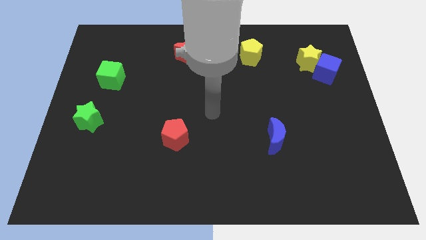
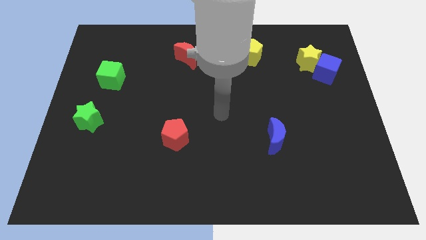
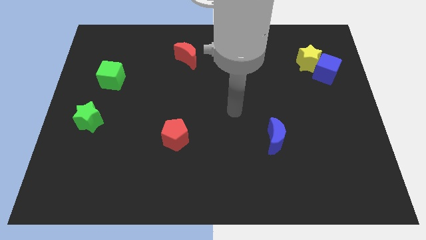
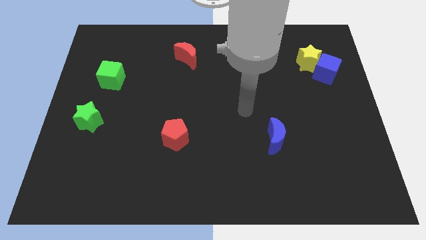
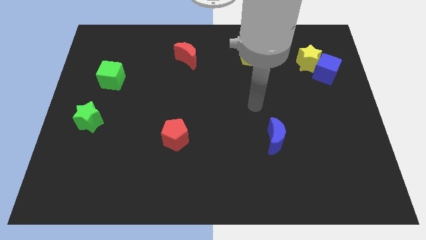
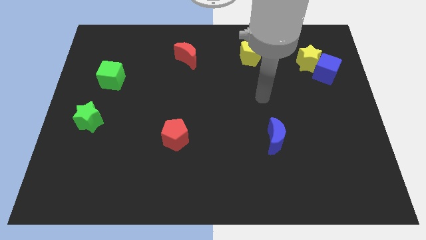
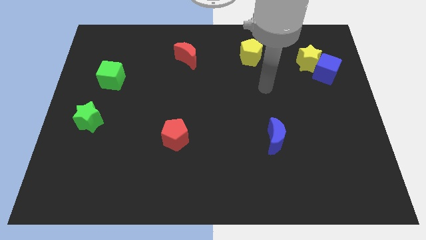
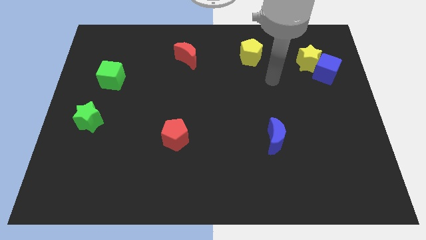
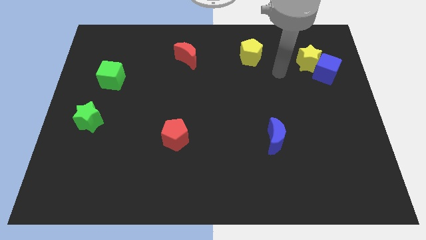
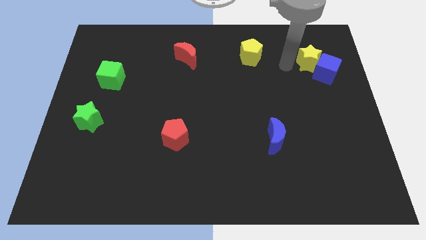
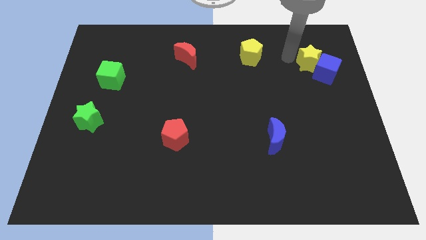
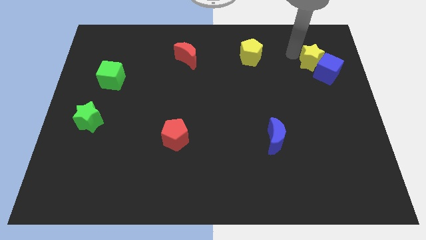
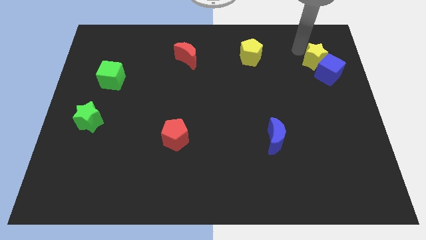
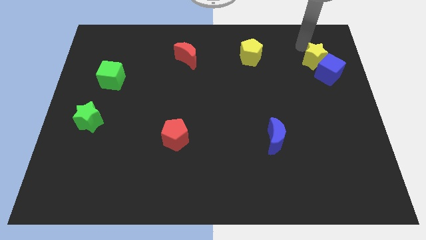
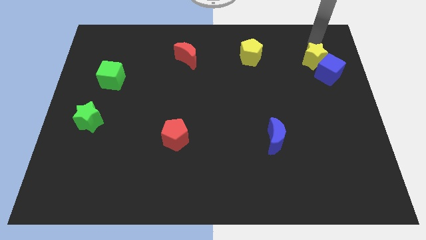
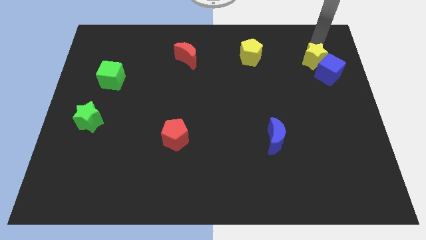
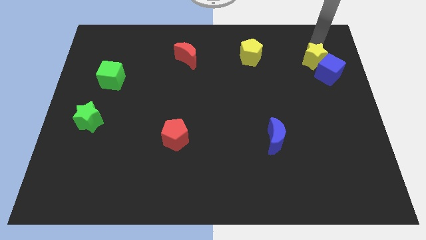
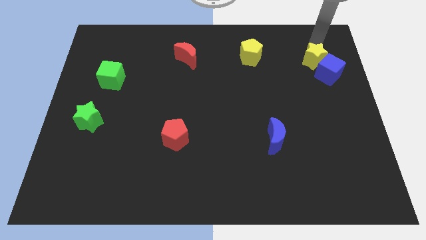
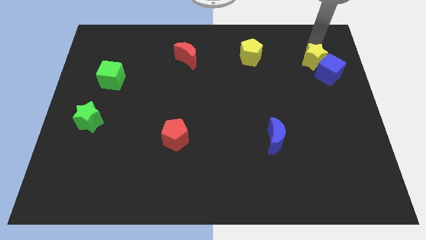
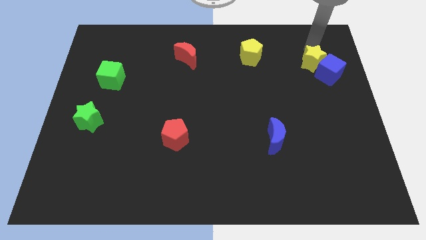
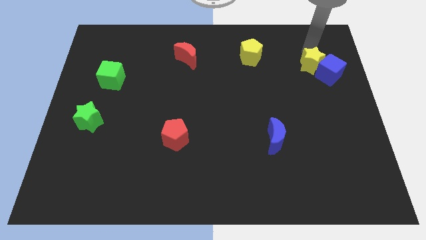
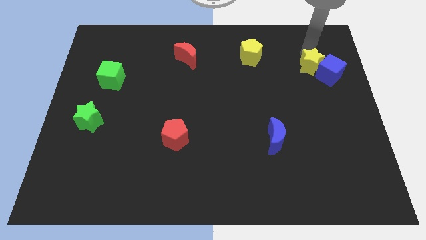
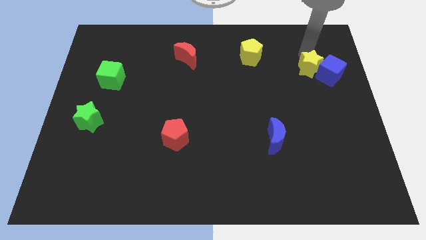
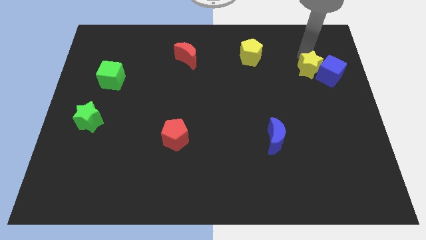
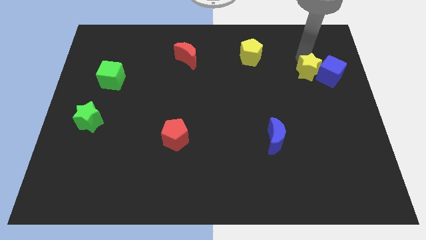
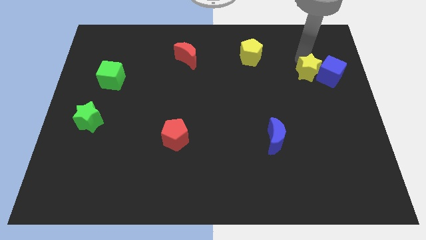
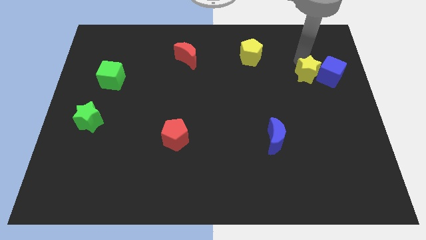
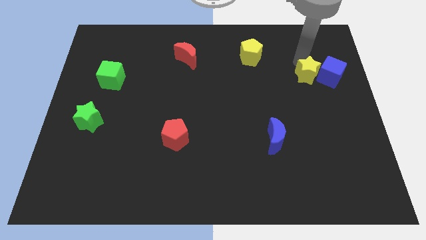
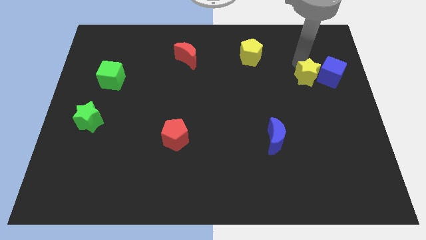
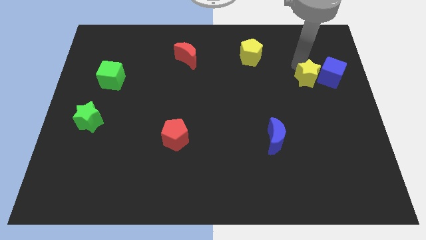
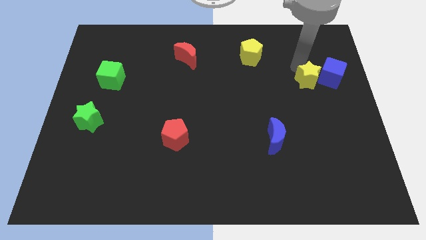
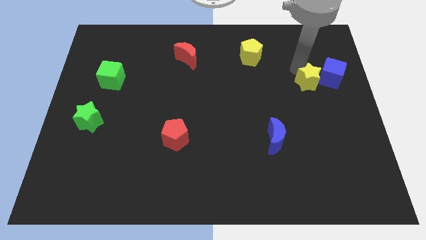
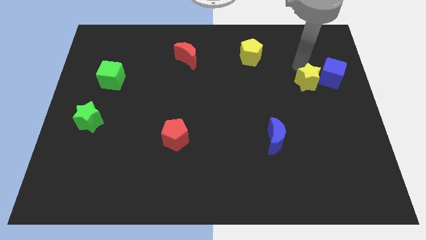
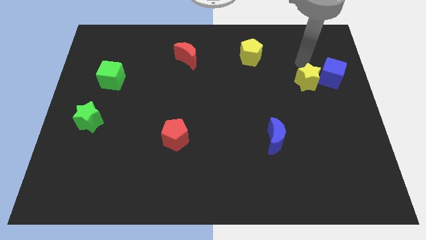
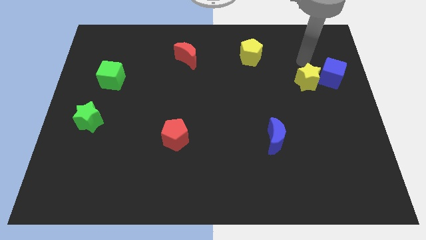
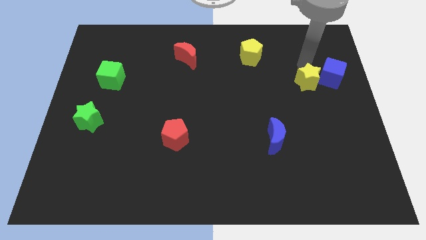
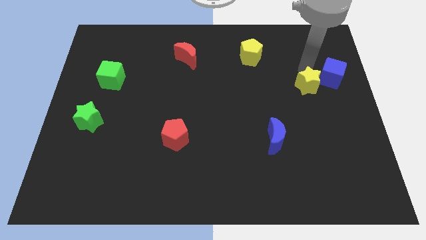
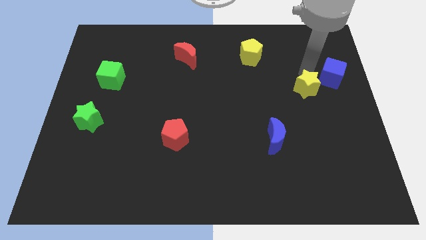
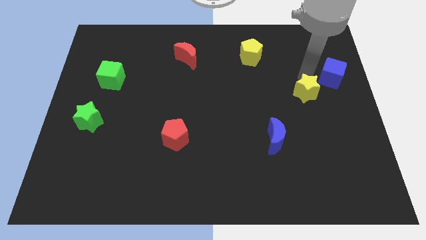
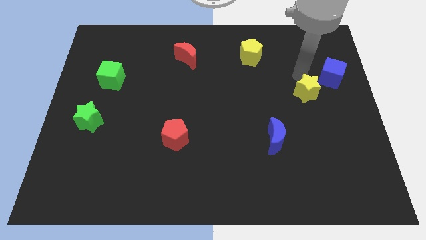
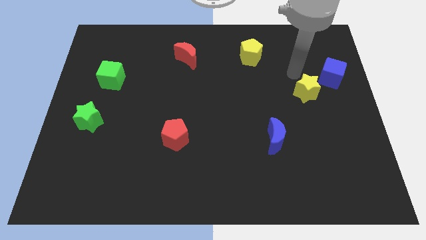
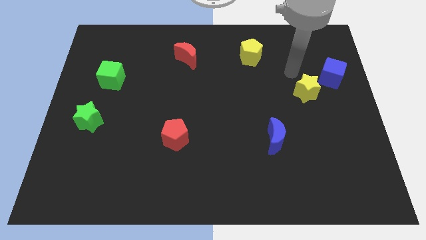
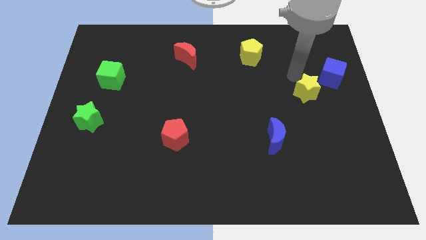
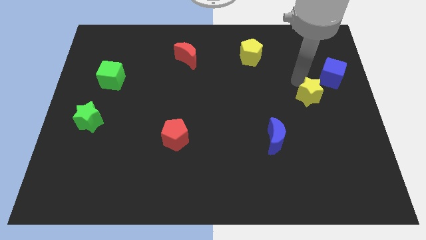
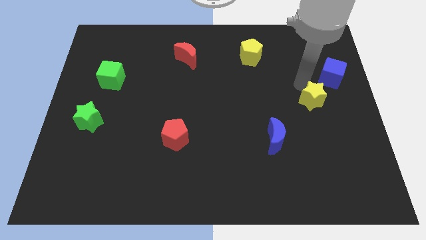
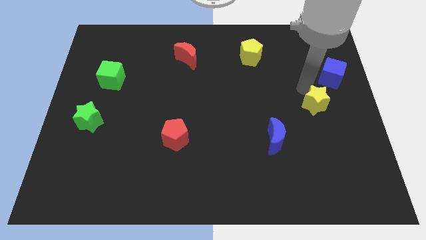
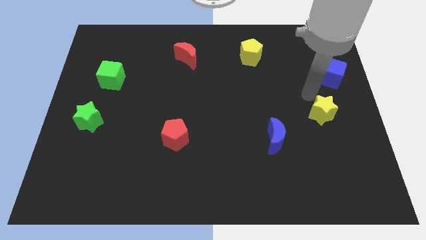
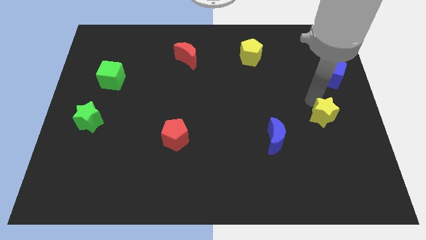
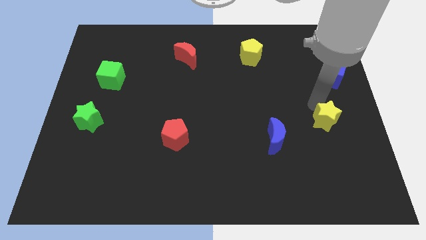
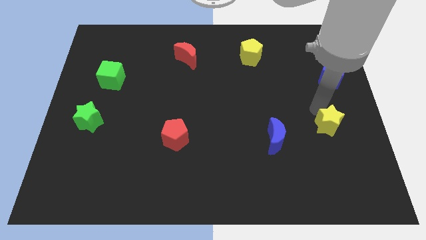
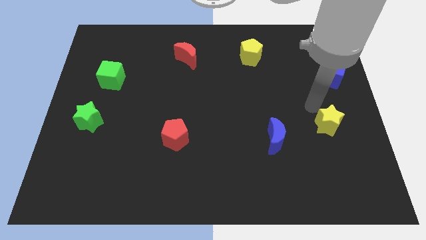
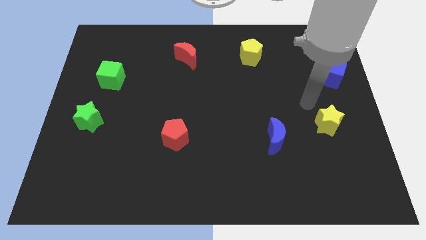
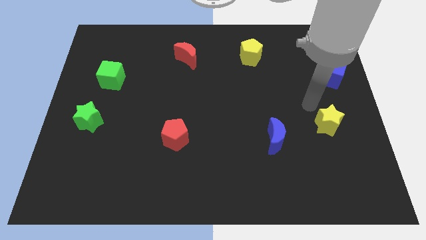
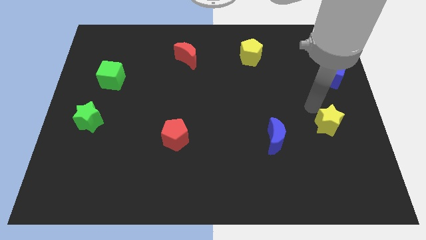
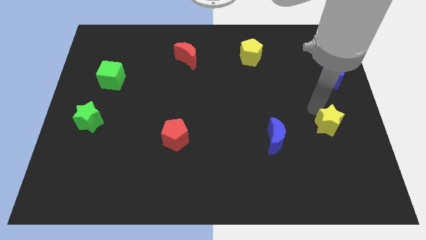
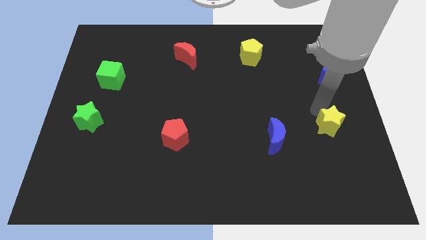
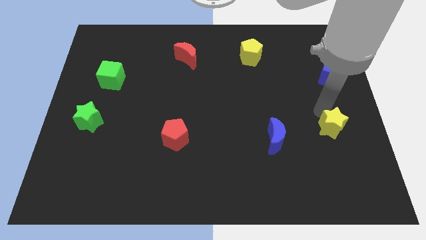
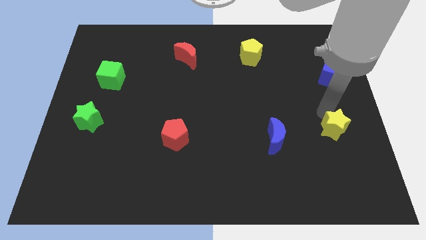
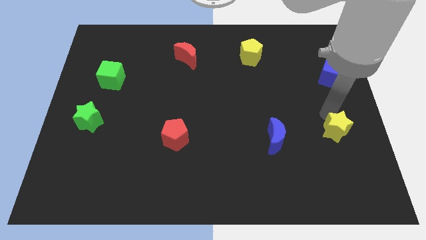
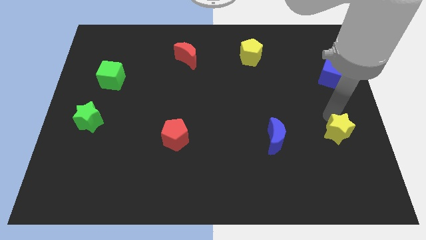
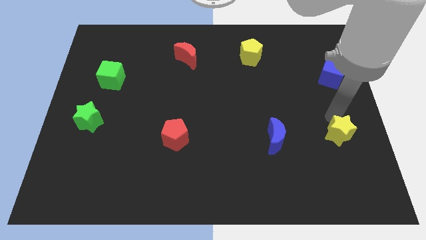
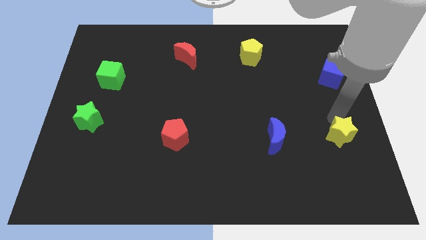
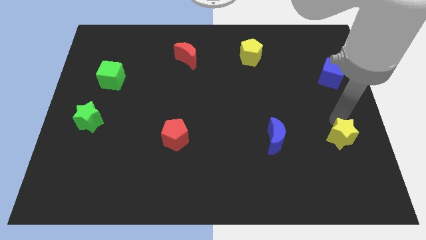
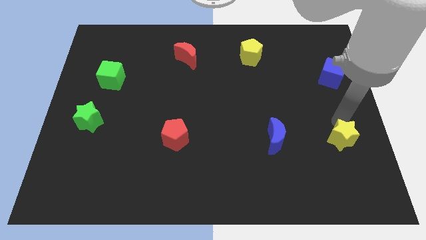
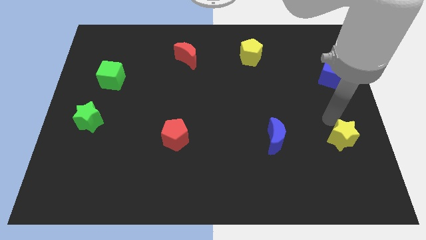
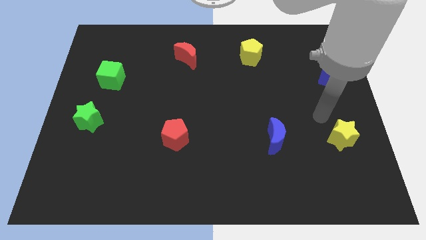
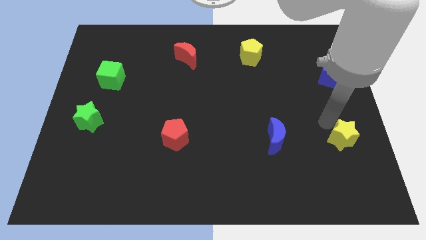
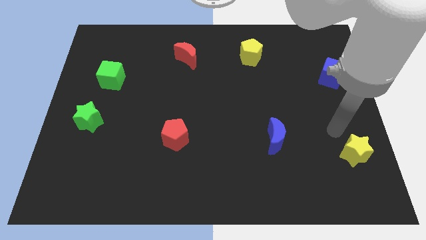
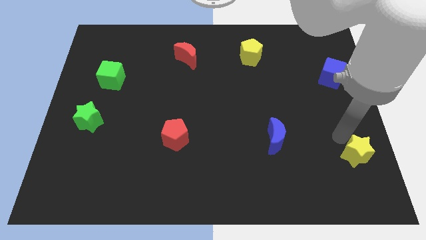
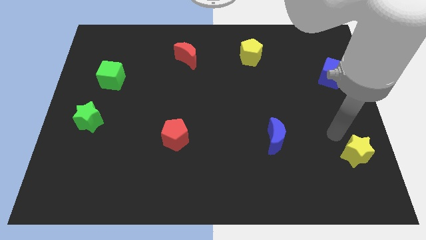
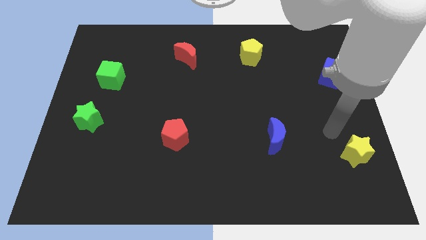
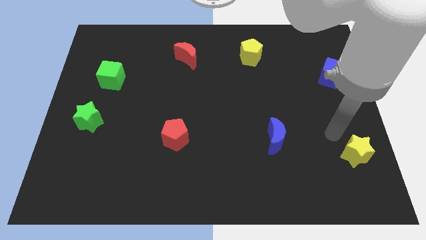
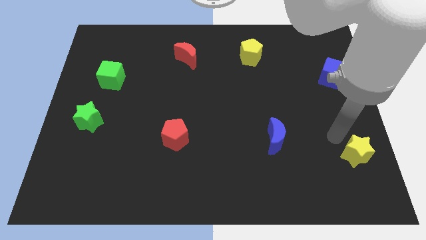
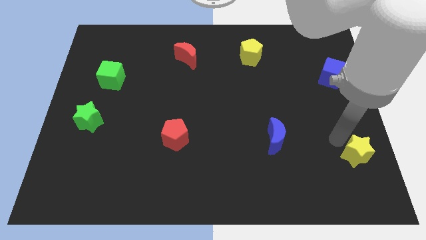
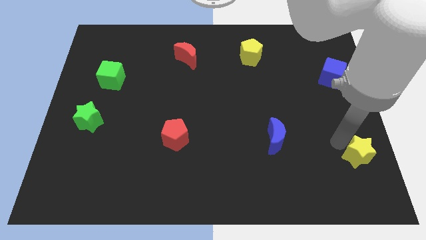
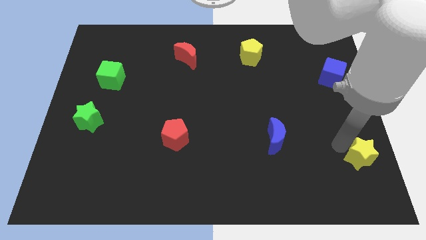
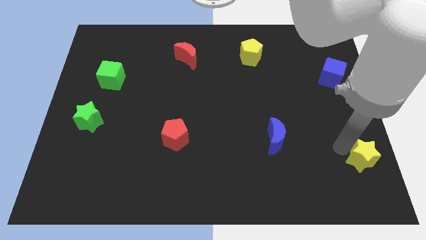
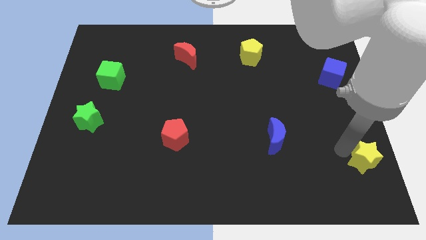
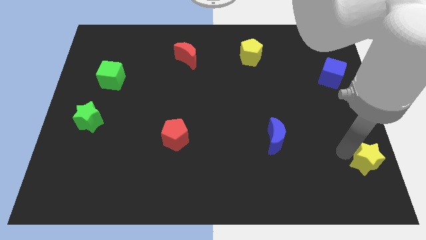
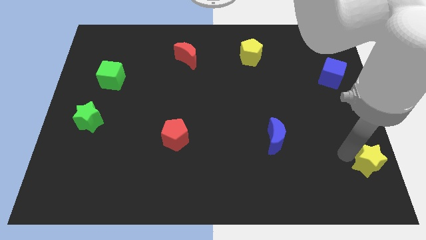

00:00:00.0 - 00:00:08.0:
push the yellow star to the bottom right
